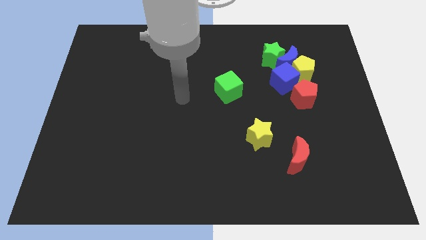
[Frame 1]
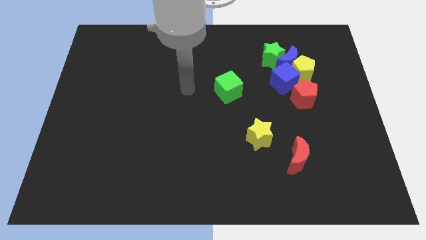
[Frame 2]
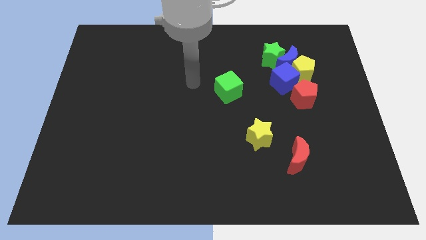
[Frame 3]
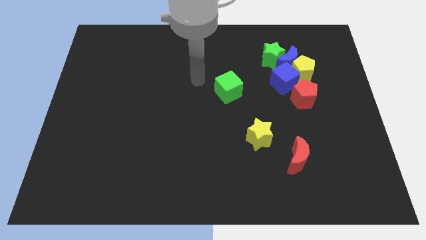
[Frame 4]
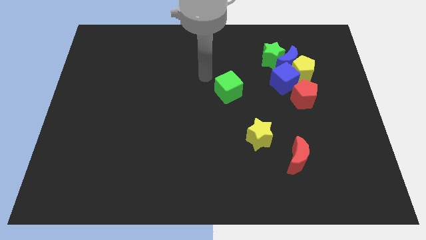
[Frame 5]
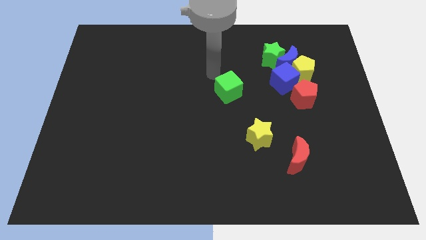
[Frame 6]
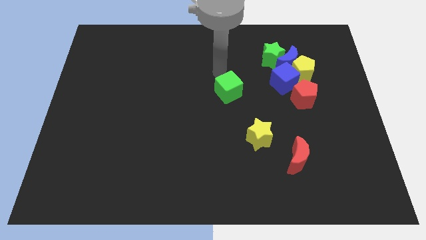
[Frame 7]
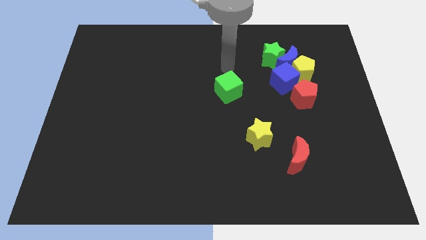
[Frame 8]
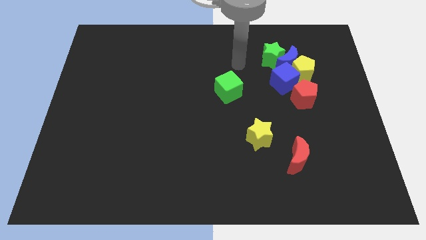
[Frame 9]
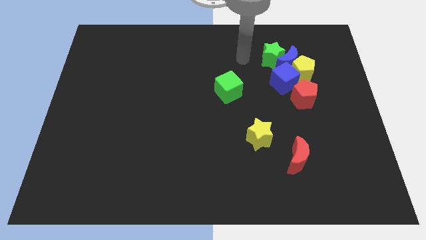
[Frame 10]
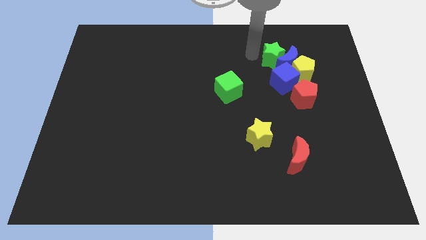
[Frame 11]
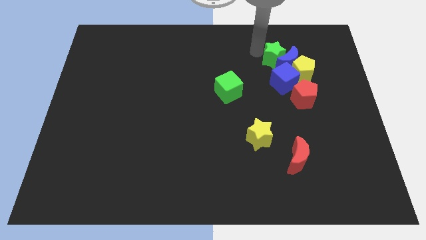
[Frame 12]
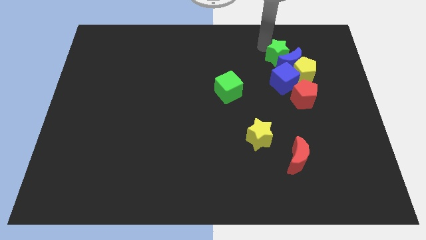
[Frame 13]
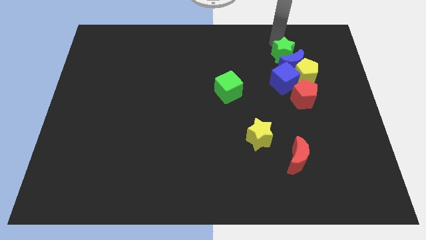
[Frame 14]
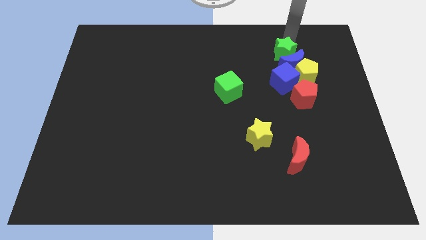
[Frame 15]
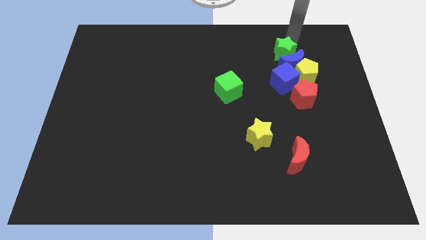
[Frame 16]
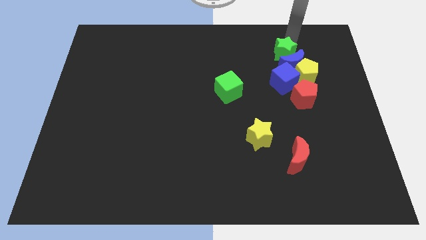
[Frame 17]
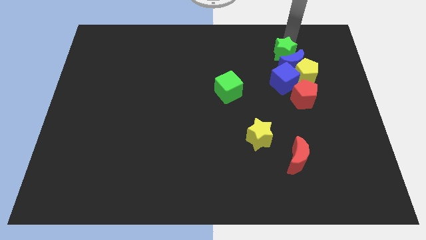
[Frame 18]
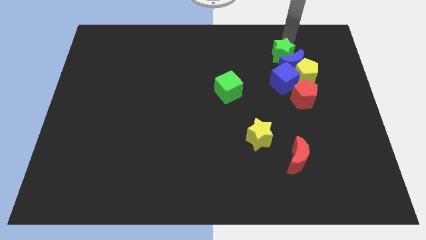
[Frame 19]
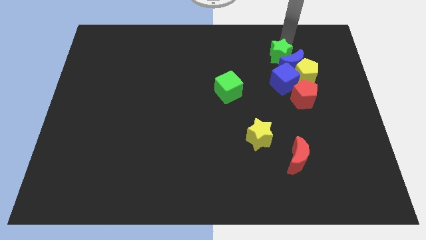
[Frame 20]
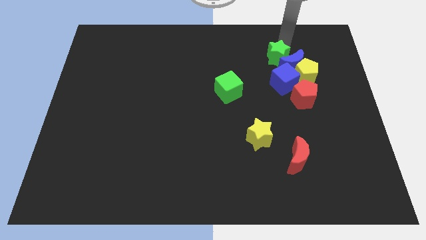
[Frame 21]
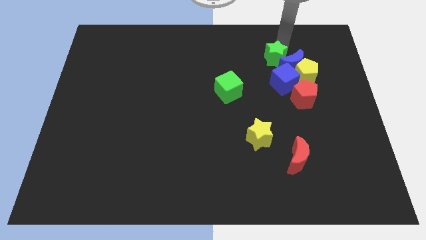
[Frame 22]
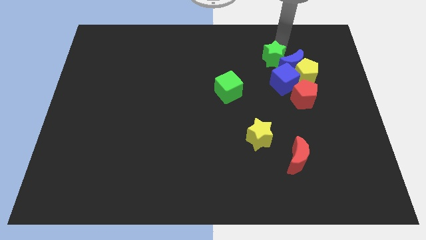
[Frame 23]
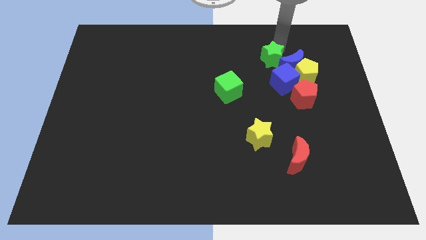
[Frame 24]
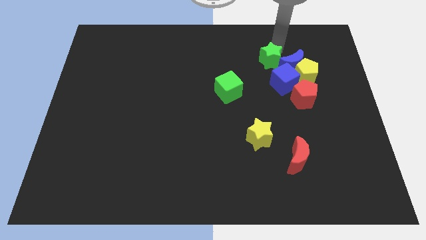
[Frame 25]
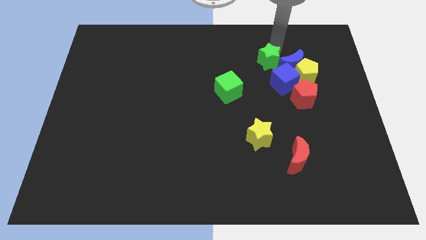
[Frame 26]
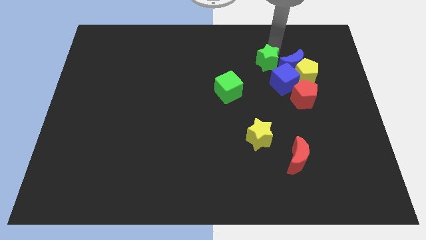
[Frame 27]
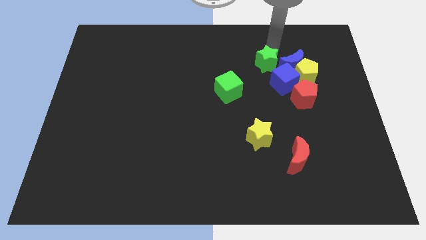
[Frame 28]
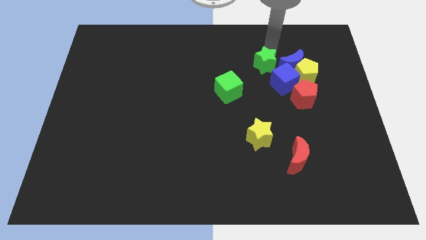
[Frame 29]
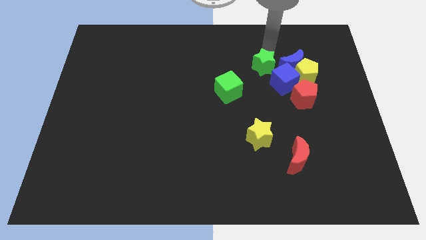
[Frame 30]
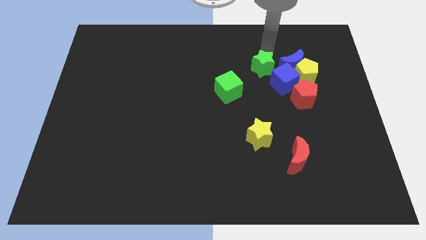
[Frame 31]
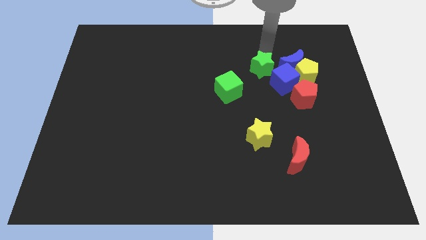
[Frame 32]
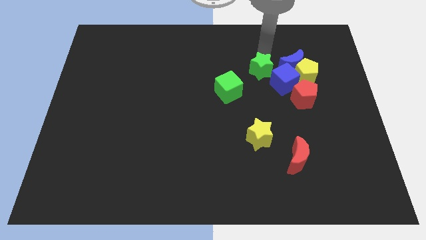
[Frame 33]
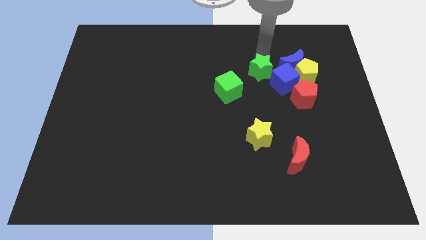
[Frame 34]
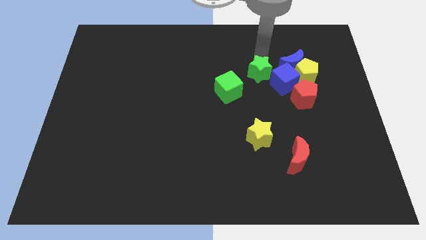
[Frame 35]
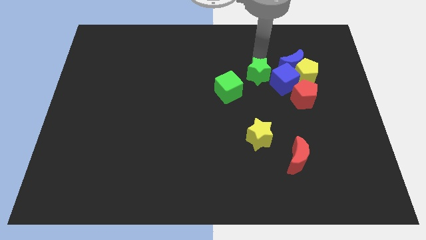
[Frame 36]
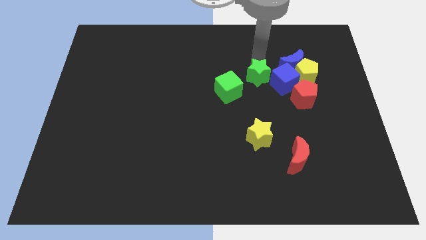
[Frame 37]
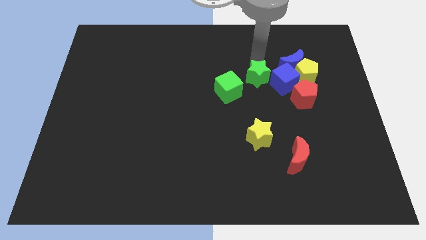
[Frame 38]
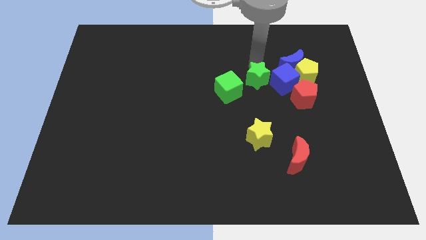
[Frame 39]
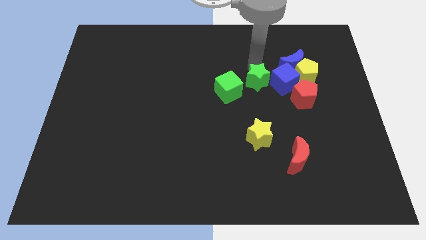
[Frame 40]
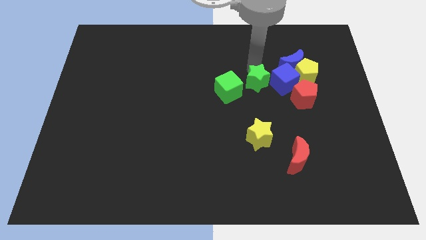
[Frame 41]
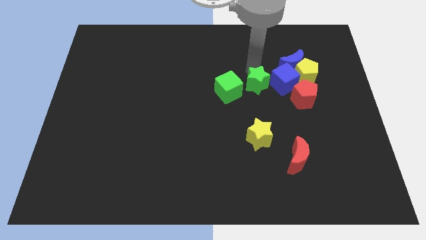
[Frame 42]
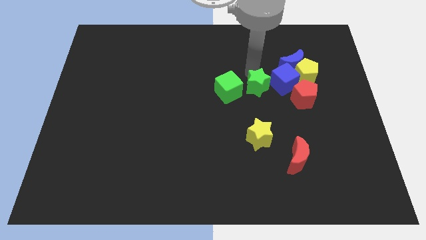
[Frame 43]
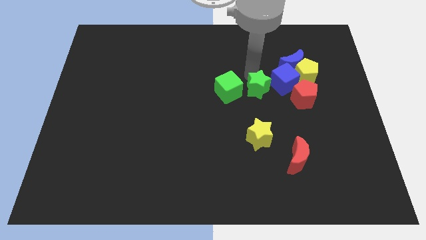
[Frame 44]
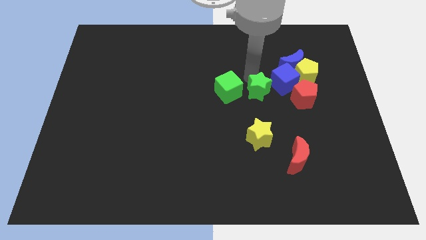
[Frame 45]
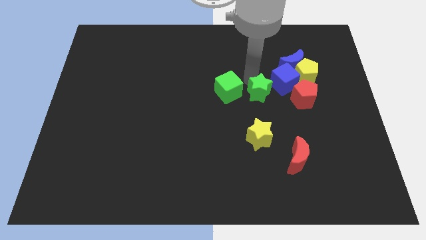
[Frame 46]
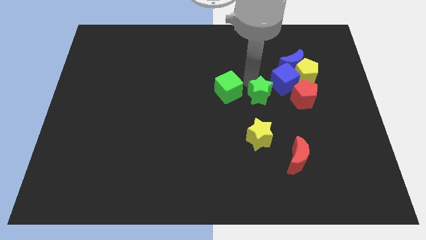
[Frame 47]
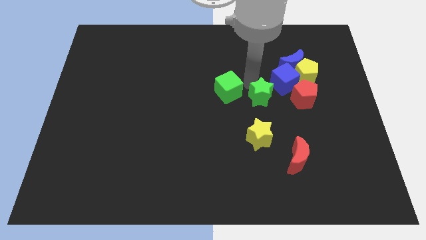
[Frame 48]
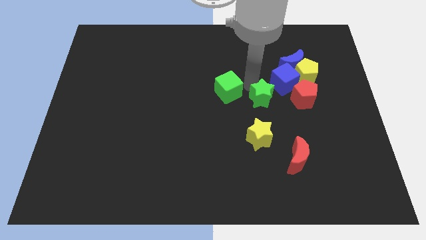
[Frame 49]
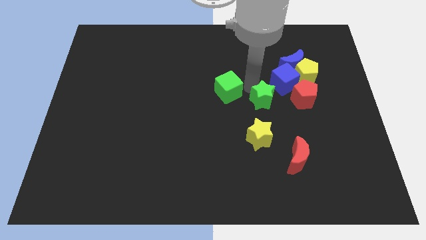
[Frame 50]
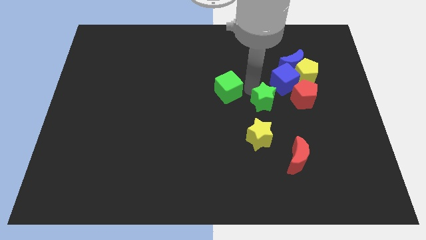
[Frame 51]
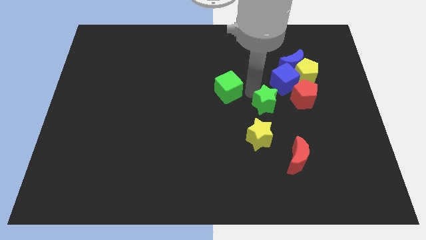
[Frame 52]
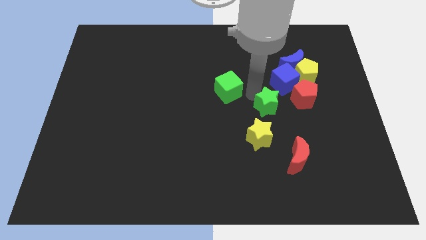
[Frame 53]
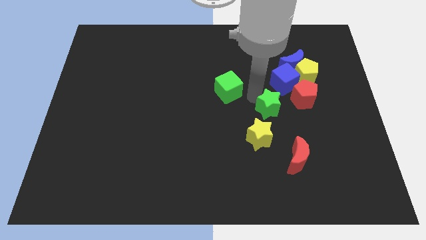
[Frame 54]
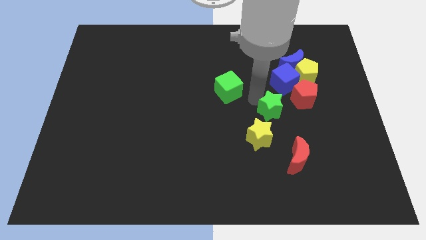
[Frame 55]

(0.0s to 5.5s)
slide the green star to the top of the red moon

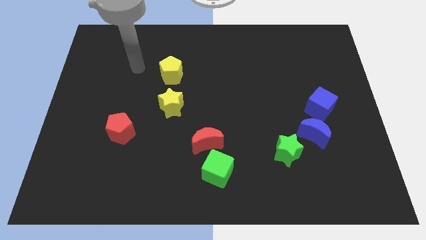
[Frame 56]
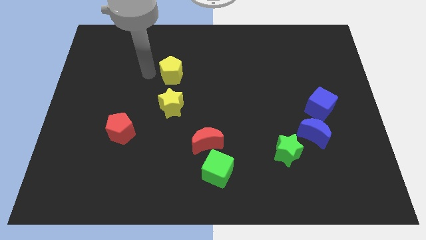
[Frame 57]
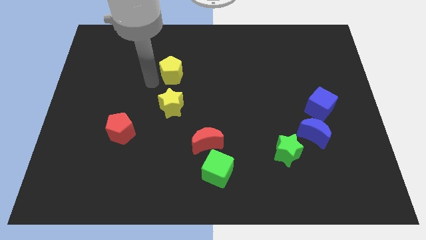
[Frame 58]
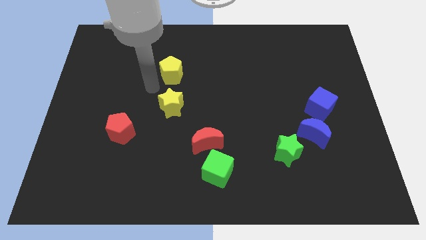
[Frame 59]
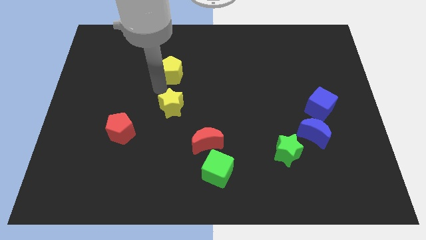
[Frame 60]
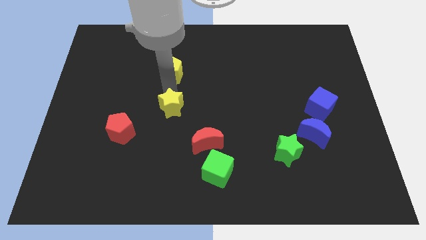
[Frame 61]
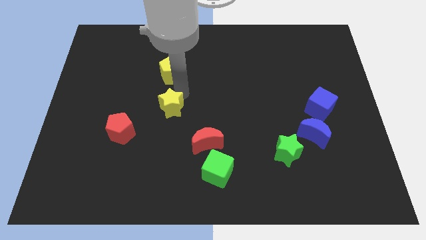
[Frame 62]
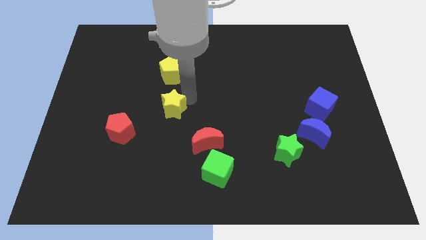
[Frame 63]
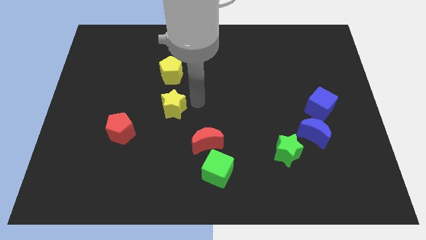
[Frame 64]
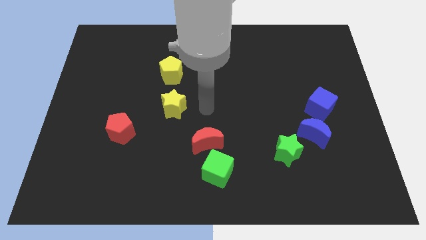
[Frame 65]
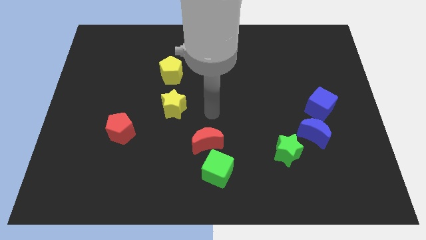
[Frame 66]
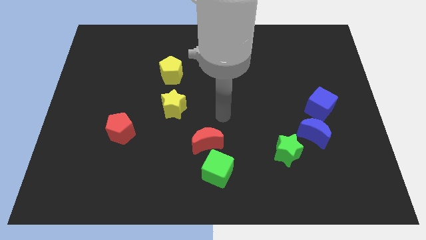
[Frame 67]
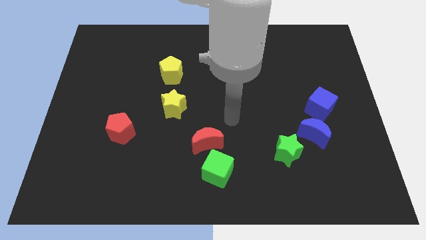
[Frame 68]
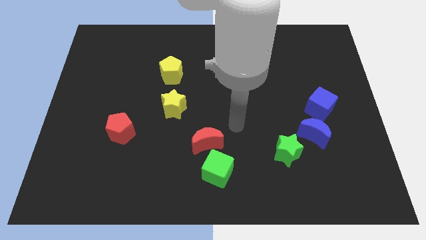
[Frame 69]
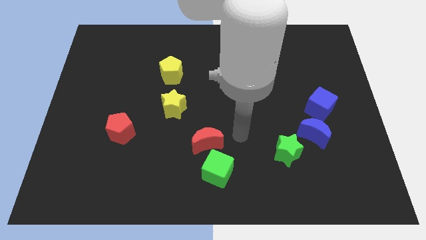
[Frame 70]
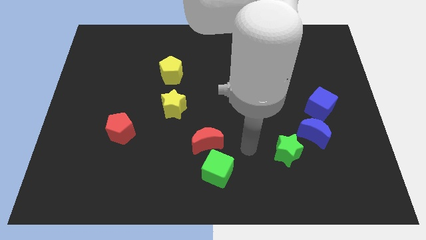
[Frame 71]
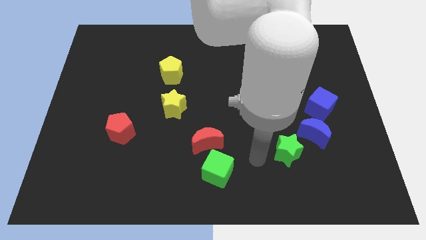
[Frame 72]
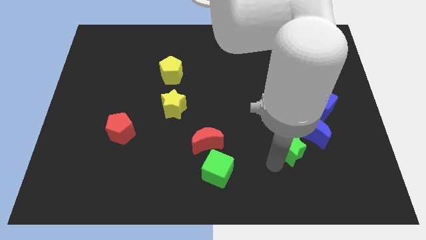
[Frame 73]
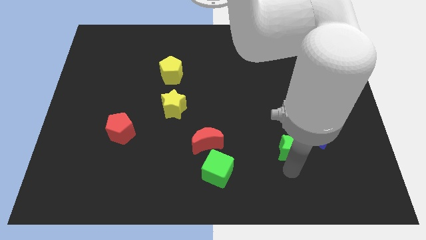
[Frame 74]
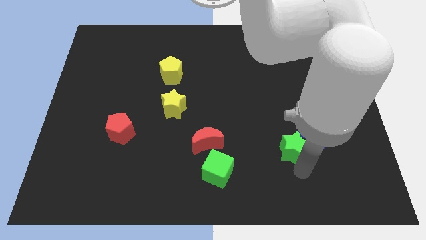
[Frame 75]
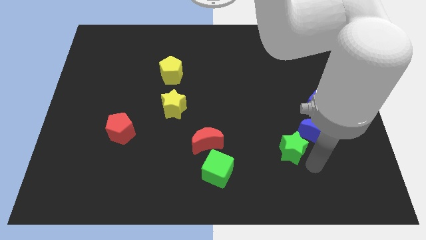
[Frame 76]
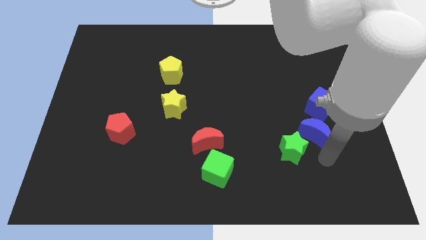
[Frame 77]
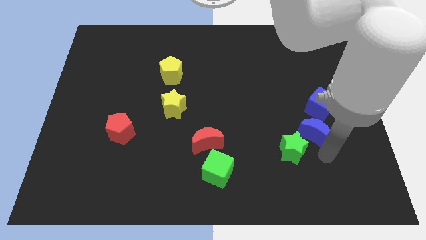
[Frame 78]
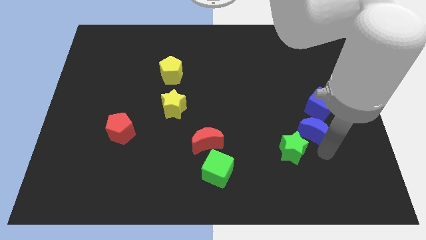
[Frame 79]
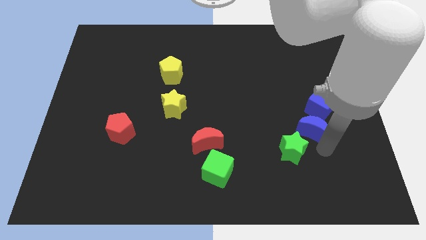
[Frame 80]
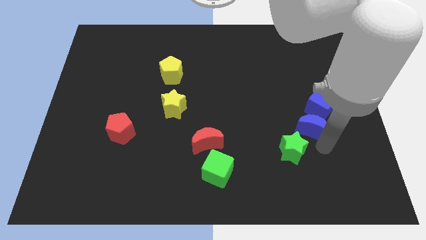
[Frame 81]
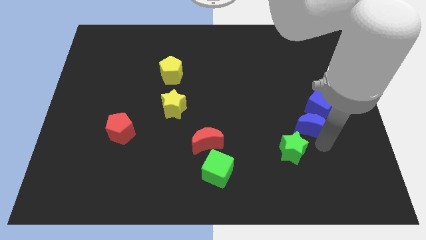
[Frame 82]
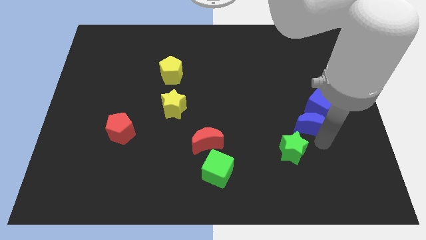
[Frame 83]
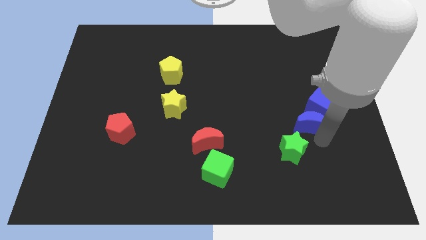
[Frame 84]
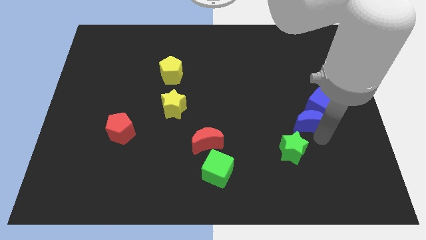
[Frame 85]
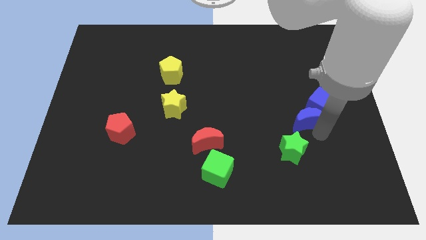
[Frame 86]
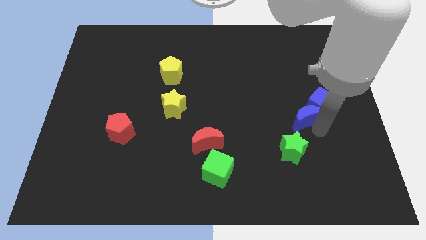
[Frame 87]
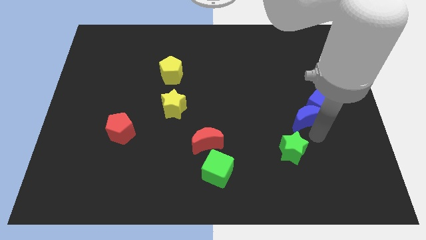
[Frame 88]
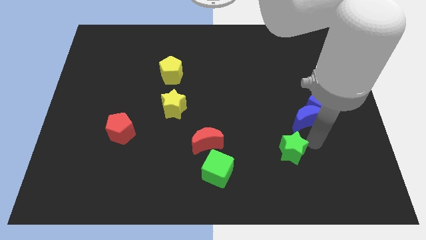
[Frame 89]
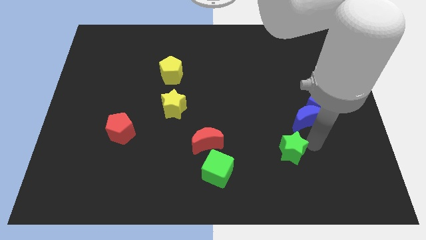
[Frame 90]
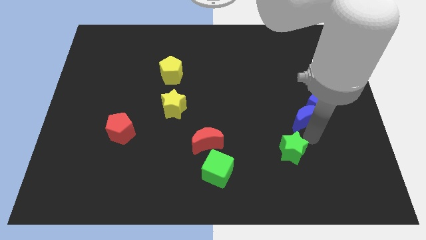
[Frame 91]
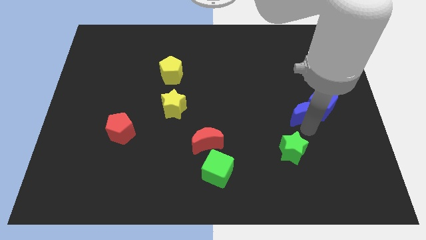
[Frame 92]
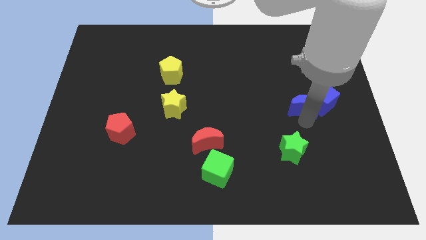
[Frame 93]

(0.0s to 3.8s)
put the blue moon diagonally up and to the left of the blue cube
